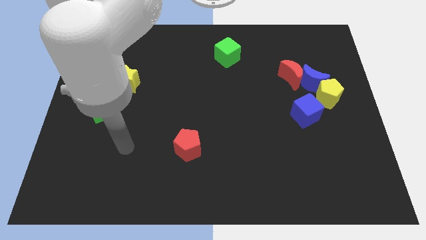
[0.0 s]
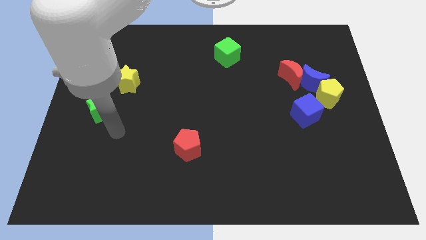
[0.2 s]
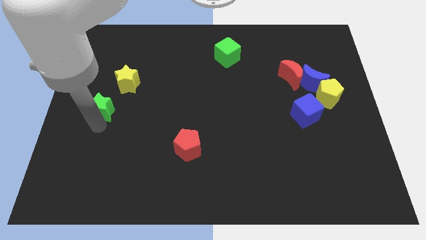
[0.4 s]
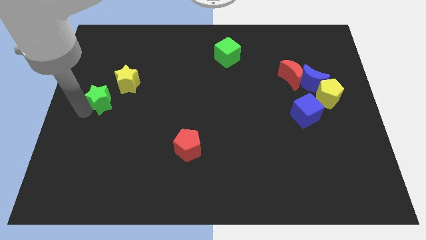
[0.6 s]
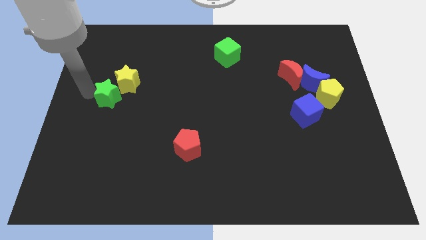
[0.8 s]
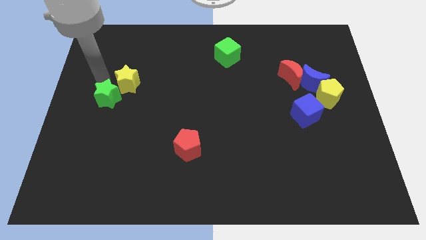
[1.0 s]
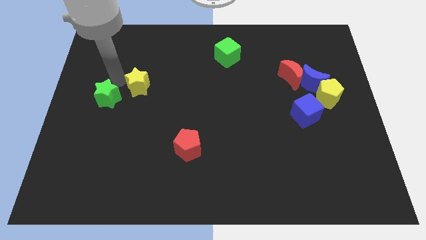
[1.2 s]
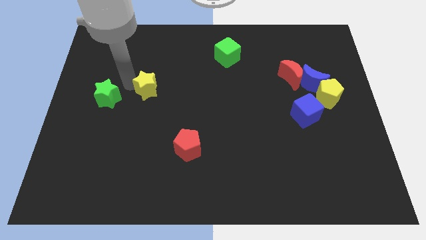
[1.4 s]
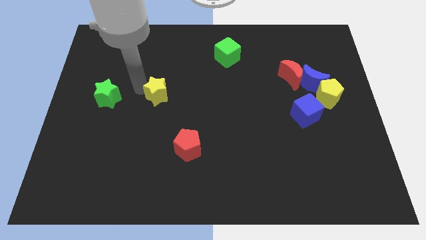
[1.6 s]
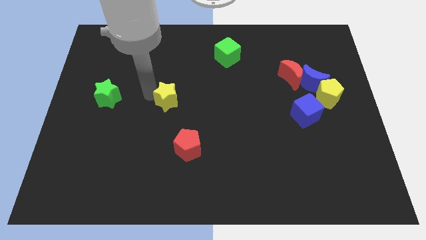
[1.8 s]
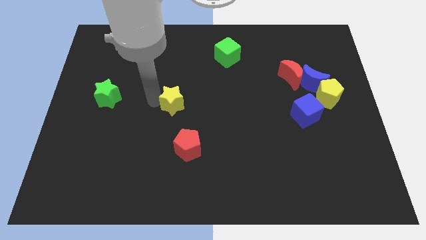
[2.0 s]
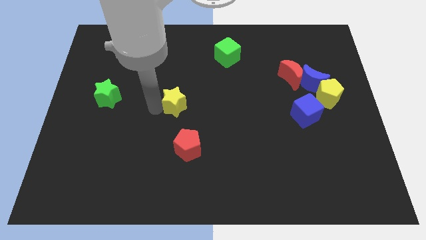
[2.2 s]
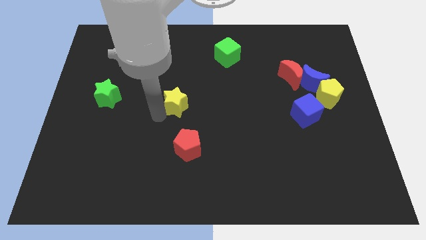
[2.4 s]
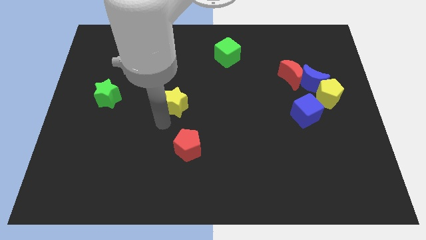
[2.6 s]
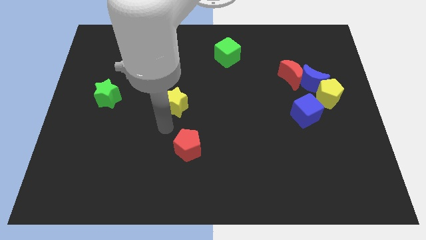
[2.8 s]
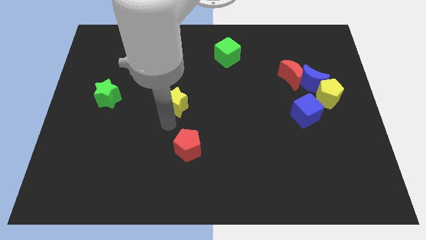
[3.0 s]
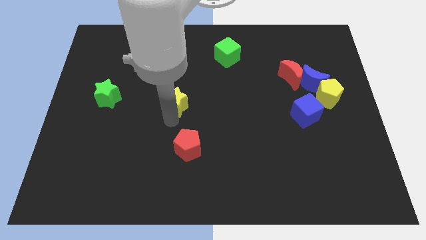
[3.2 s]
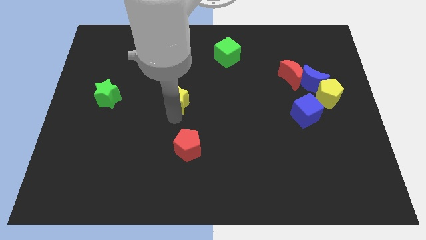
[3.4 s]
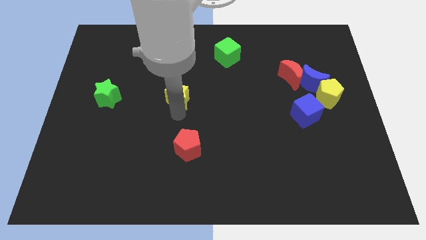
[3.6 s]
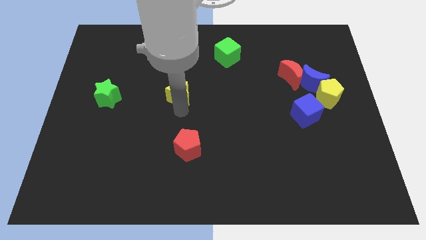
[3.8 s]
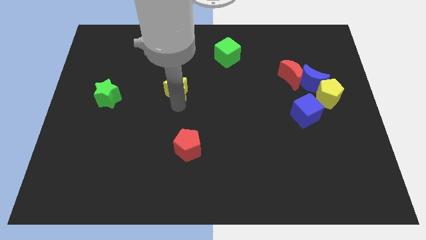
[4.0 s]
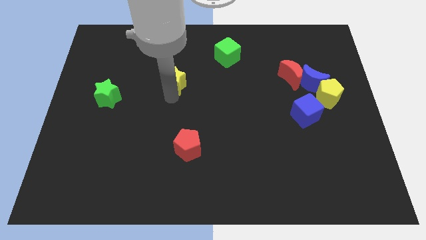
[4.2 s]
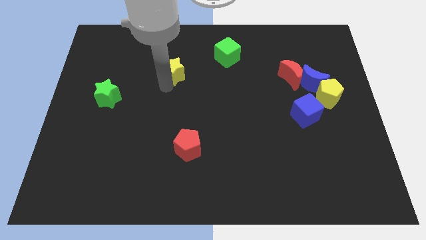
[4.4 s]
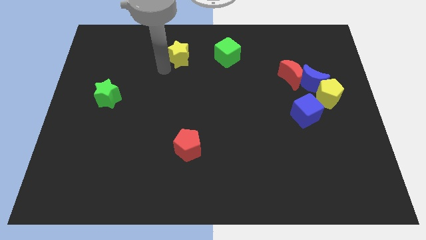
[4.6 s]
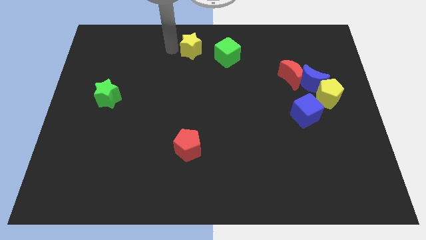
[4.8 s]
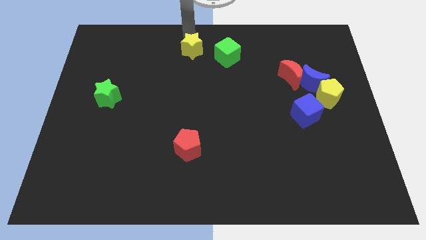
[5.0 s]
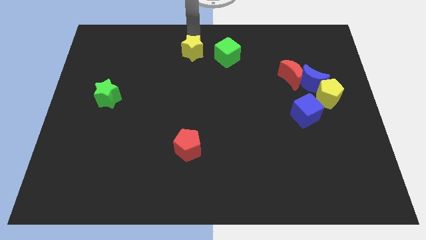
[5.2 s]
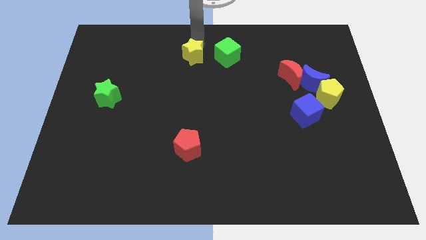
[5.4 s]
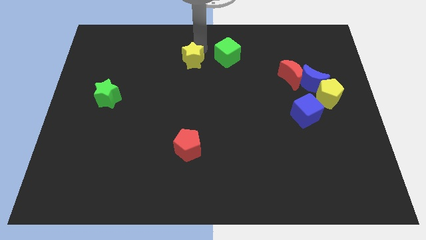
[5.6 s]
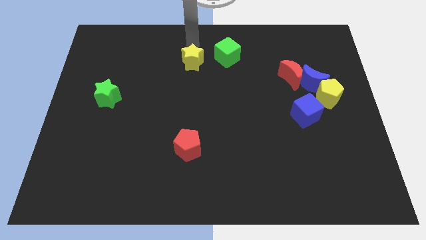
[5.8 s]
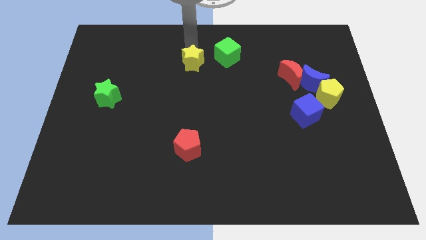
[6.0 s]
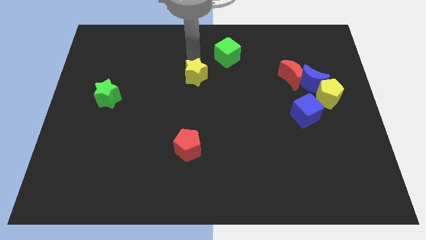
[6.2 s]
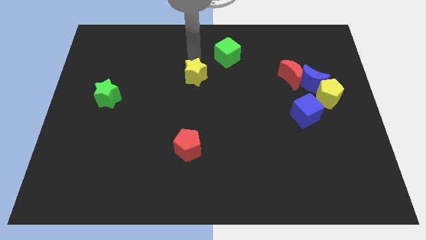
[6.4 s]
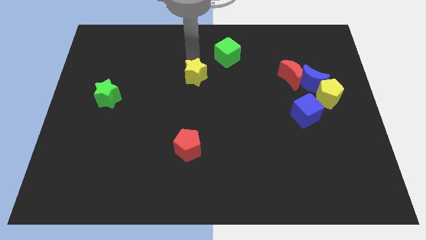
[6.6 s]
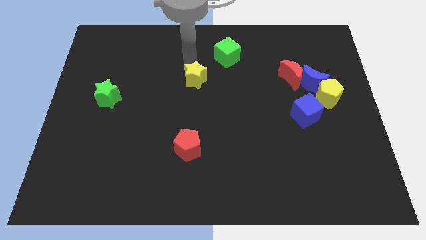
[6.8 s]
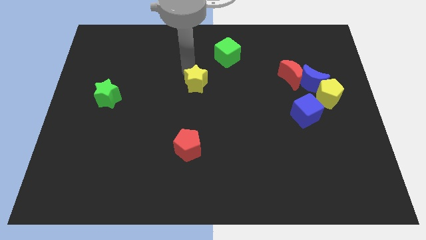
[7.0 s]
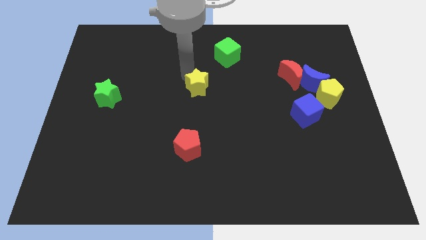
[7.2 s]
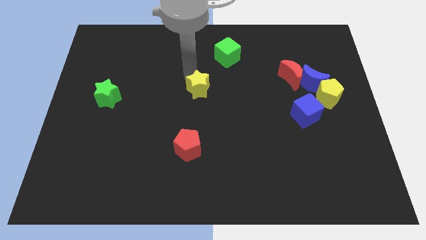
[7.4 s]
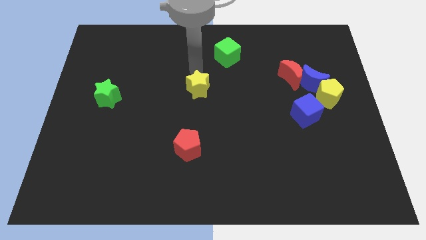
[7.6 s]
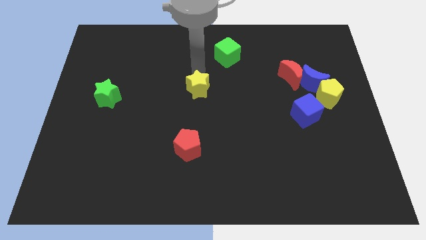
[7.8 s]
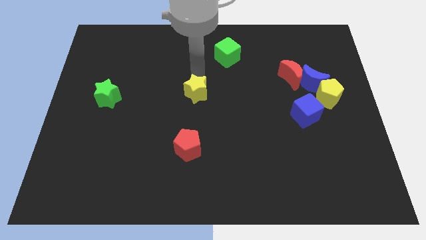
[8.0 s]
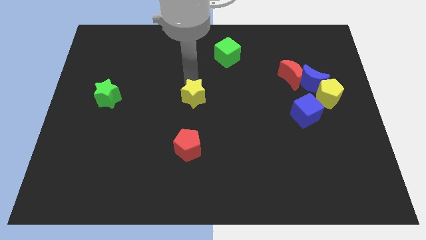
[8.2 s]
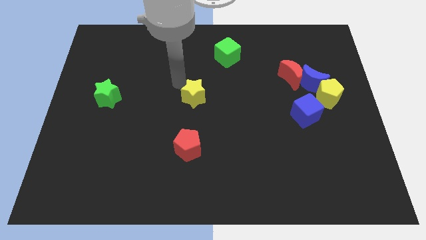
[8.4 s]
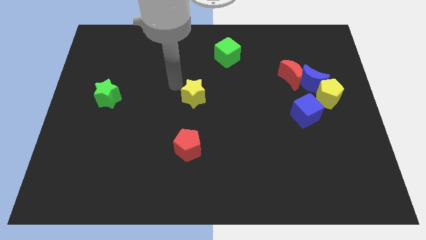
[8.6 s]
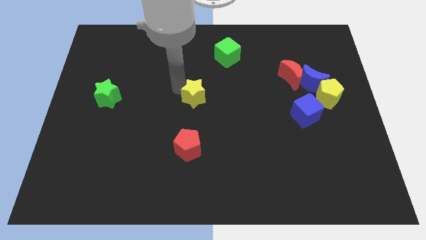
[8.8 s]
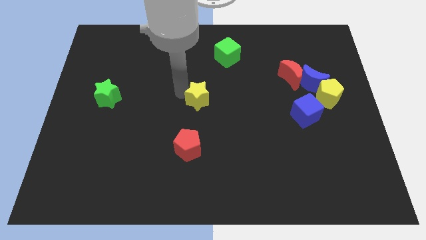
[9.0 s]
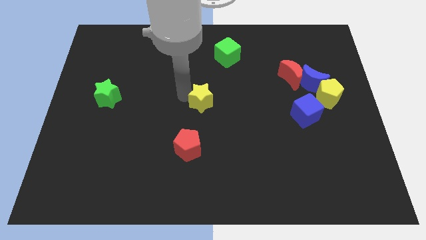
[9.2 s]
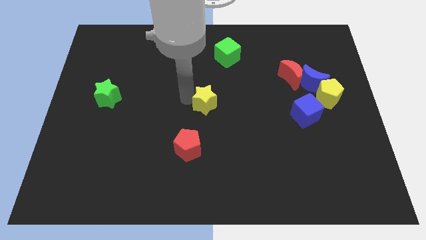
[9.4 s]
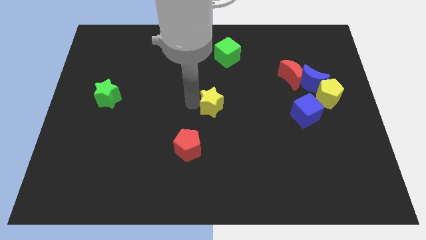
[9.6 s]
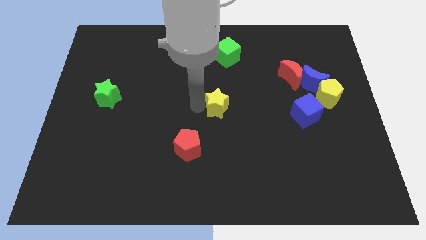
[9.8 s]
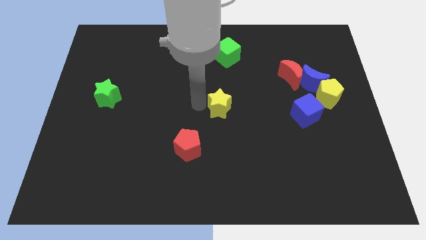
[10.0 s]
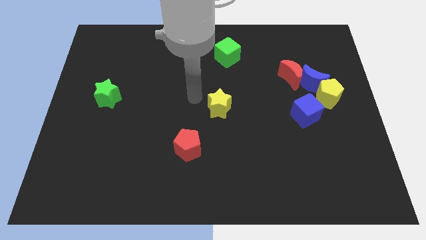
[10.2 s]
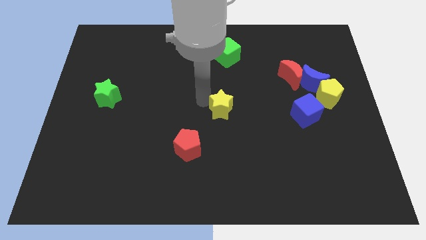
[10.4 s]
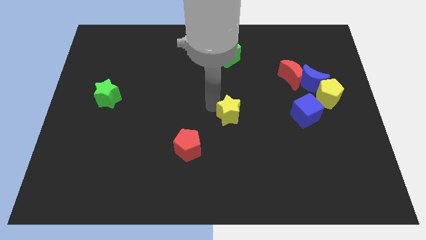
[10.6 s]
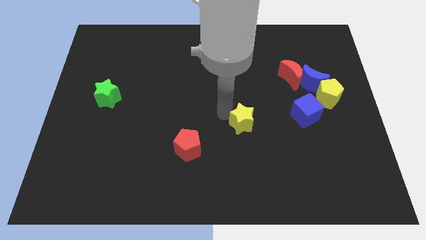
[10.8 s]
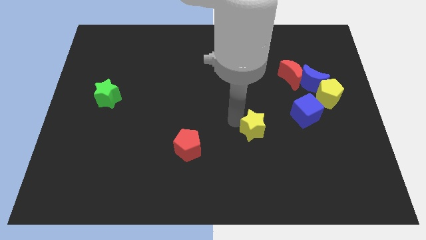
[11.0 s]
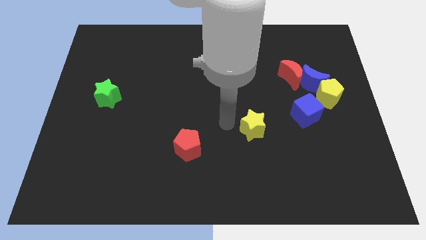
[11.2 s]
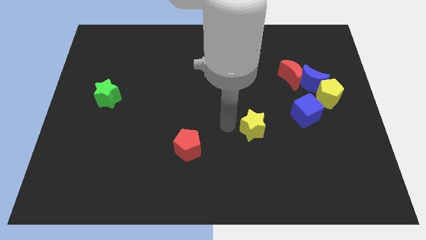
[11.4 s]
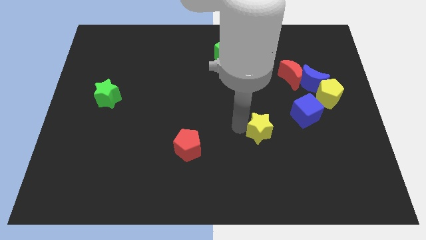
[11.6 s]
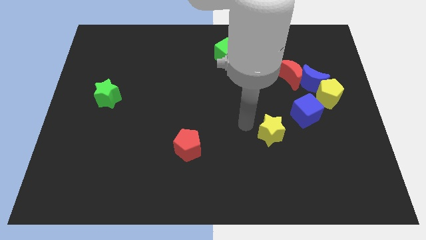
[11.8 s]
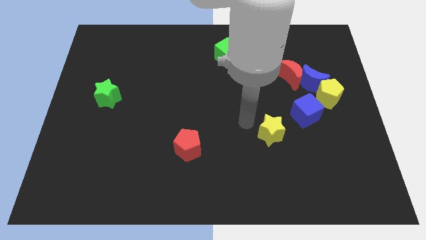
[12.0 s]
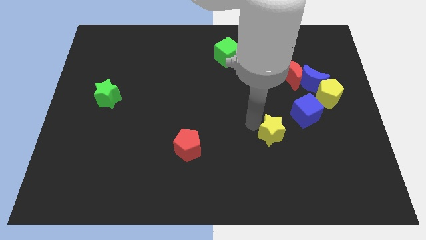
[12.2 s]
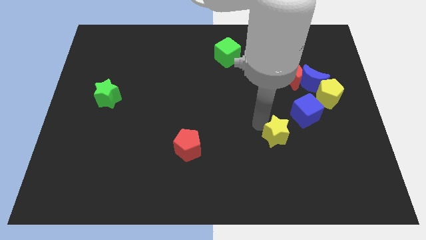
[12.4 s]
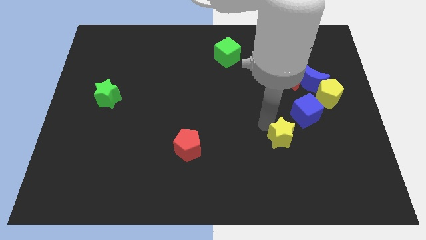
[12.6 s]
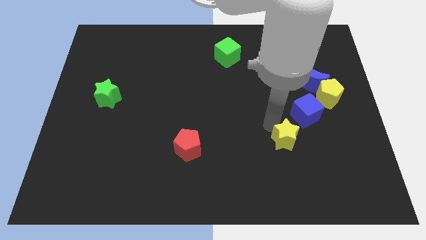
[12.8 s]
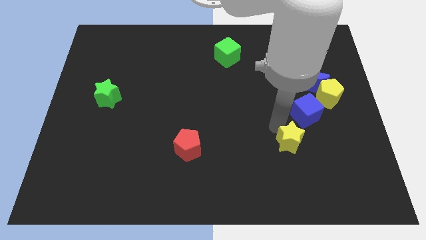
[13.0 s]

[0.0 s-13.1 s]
slide the yellow star to the bottom of the blue cube
